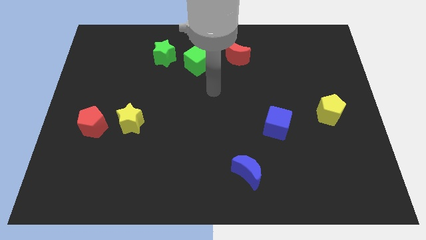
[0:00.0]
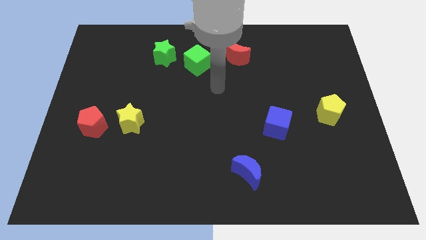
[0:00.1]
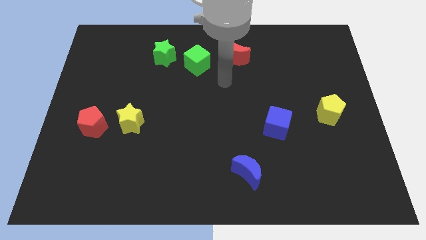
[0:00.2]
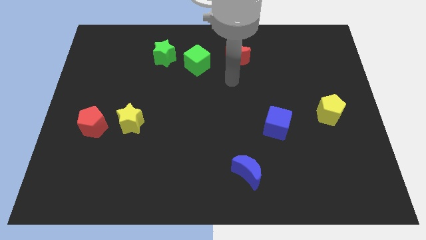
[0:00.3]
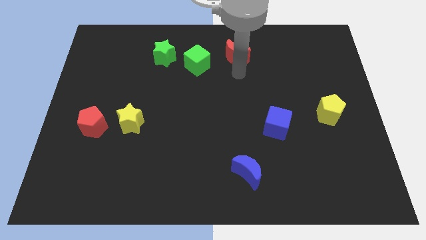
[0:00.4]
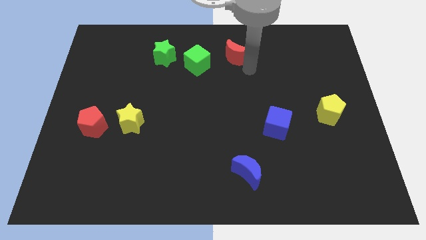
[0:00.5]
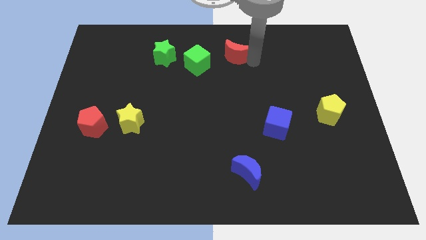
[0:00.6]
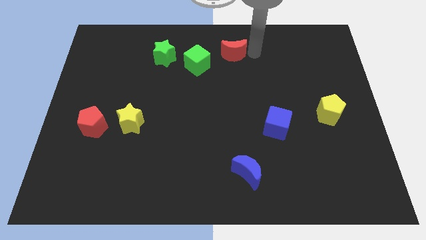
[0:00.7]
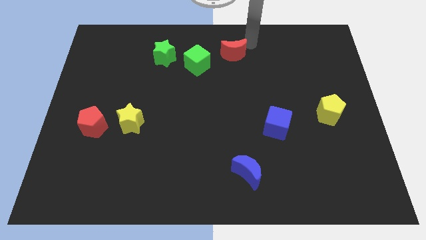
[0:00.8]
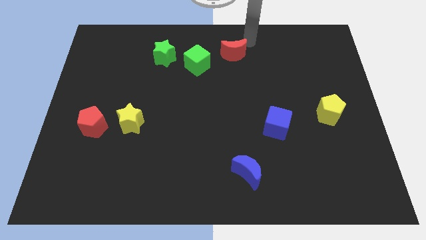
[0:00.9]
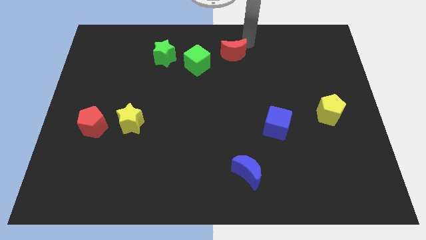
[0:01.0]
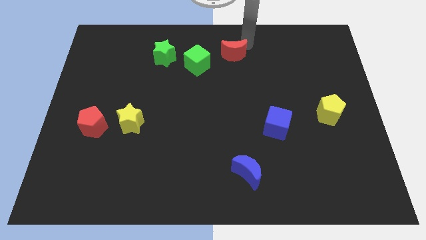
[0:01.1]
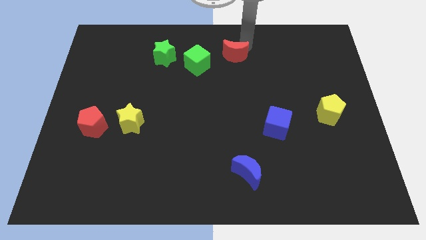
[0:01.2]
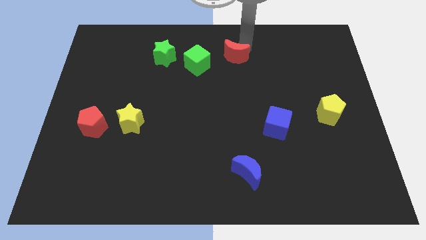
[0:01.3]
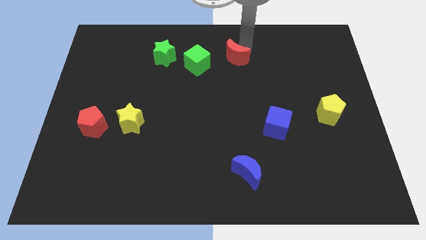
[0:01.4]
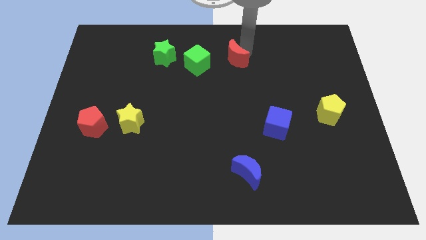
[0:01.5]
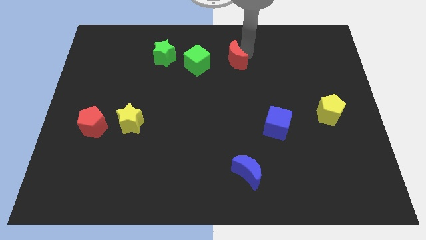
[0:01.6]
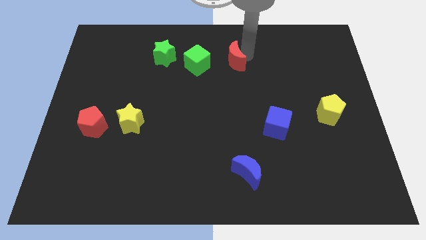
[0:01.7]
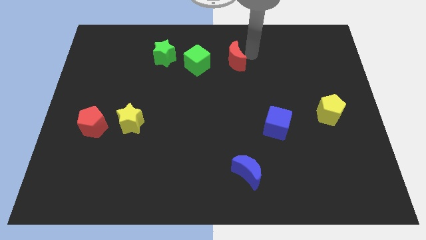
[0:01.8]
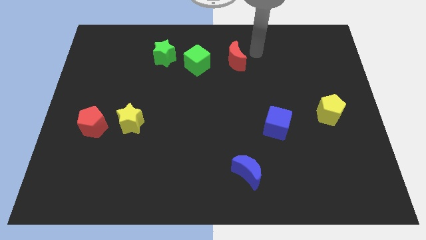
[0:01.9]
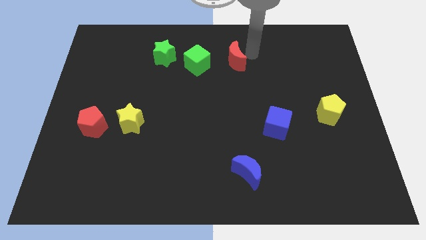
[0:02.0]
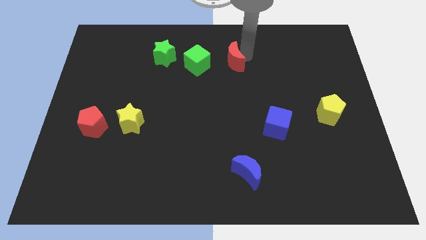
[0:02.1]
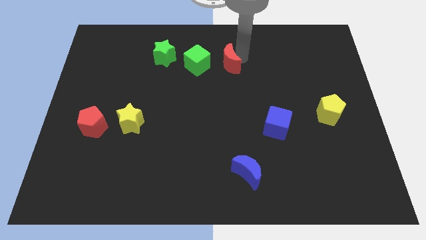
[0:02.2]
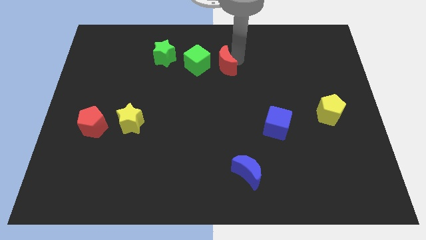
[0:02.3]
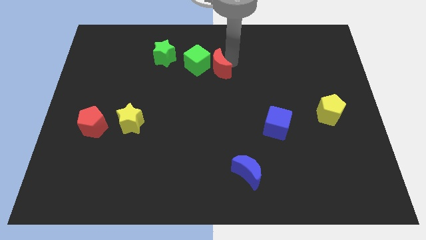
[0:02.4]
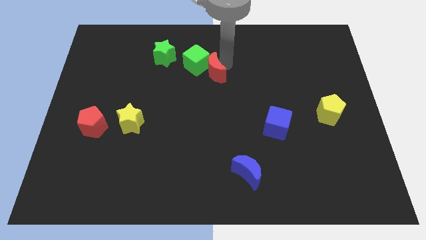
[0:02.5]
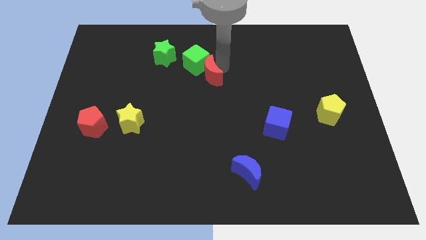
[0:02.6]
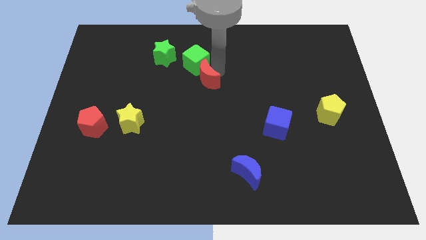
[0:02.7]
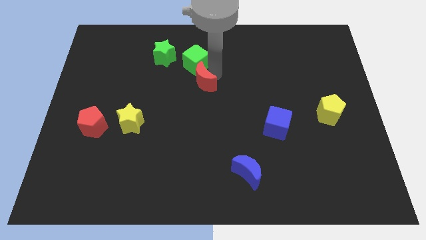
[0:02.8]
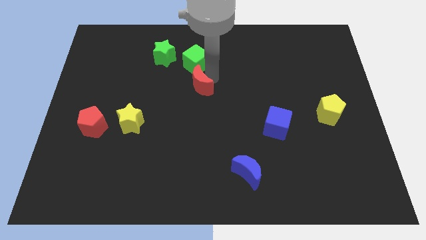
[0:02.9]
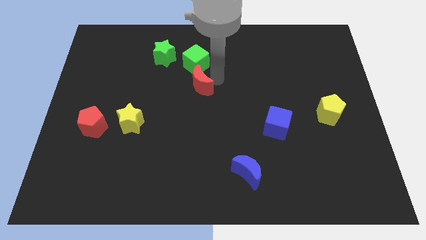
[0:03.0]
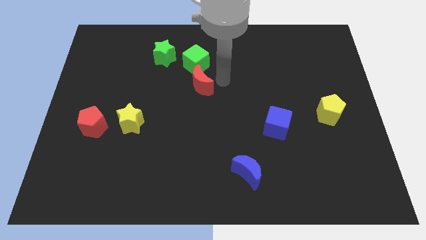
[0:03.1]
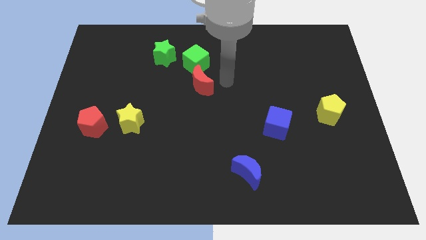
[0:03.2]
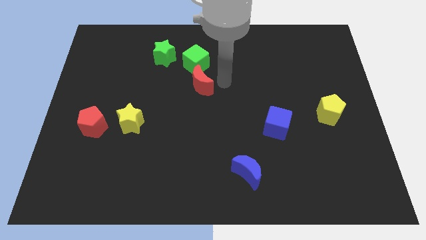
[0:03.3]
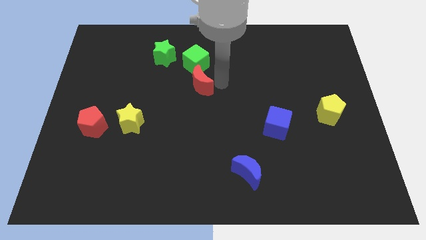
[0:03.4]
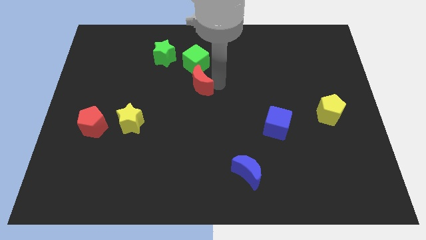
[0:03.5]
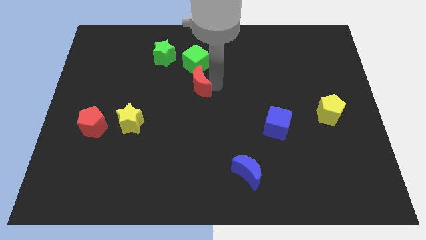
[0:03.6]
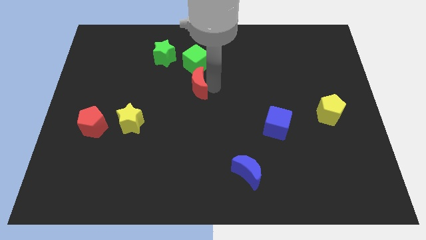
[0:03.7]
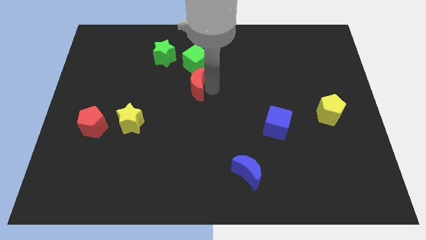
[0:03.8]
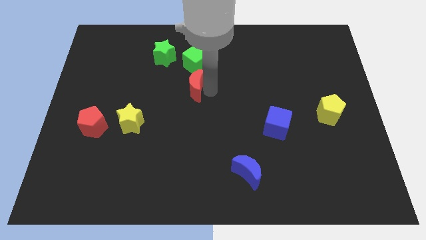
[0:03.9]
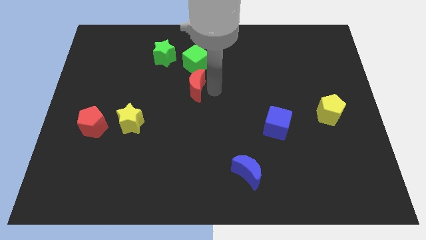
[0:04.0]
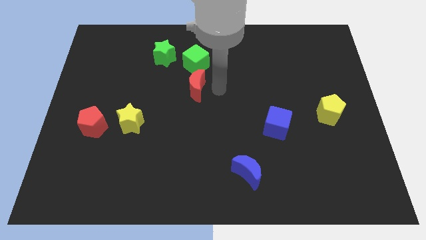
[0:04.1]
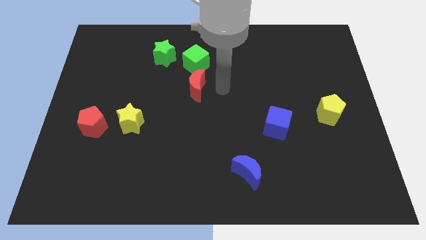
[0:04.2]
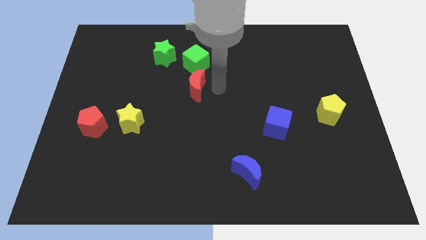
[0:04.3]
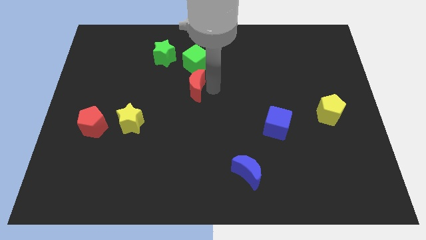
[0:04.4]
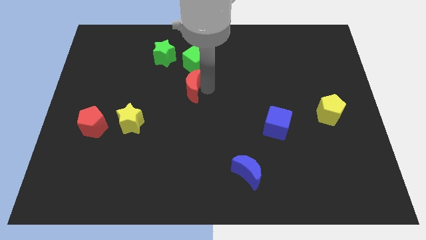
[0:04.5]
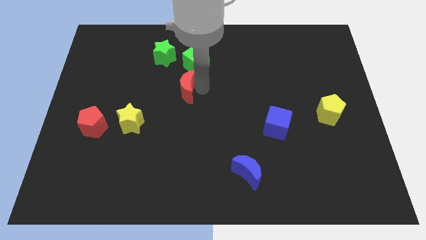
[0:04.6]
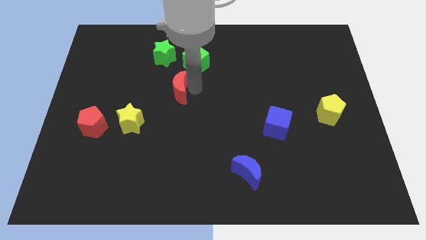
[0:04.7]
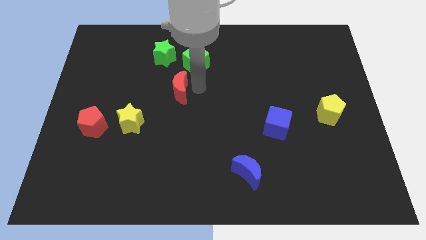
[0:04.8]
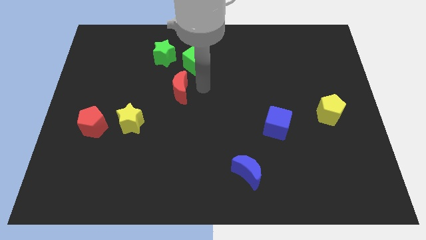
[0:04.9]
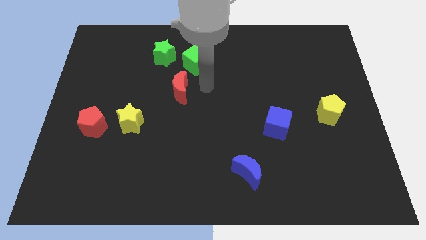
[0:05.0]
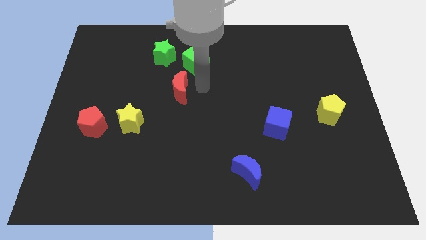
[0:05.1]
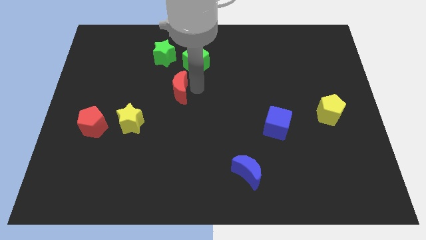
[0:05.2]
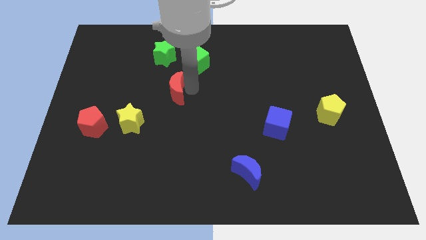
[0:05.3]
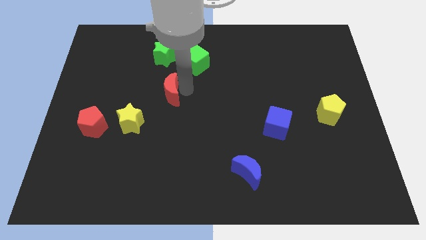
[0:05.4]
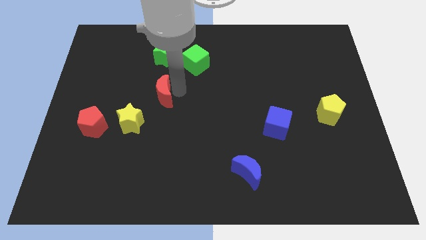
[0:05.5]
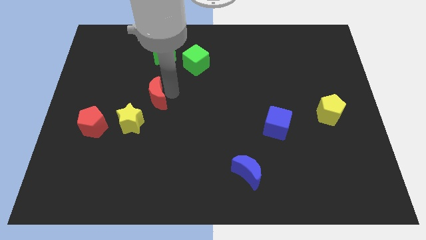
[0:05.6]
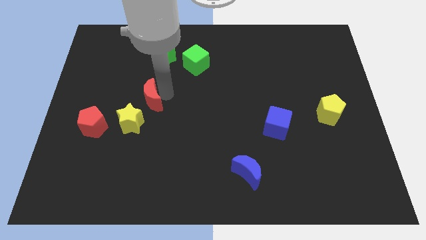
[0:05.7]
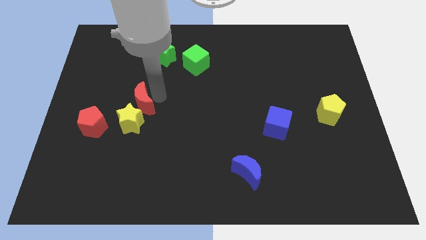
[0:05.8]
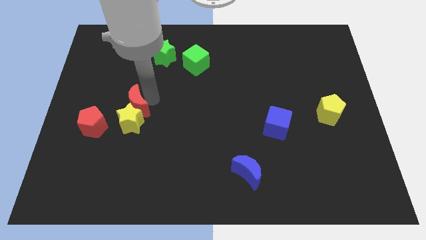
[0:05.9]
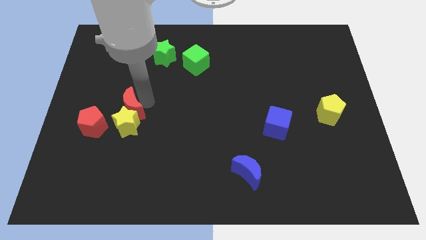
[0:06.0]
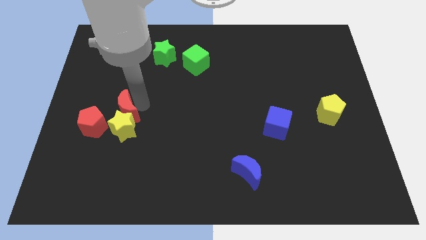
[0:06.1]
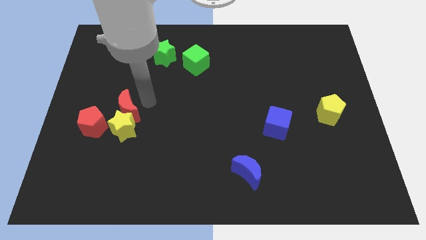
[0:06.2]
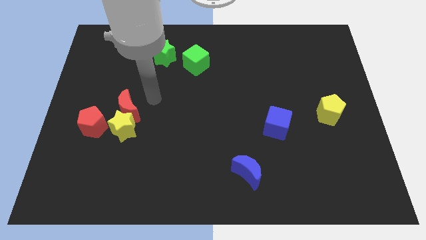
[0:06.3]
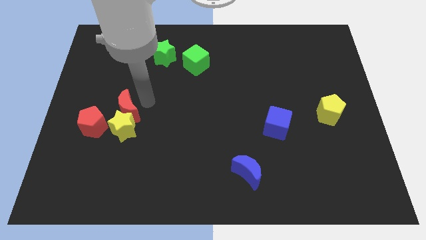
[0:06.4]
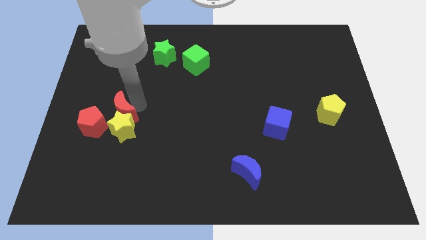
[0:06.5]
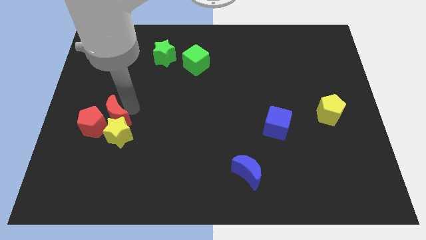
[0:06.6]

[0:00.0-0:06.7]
push the red moon close to the red pentagon
